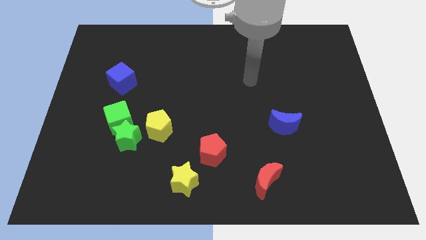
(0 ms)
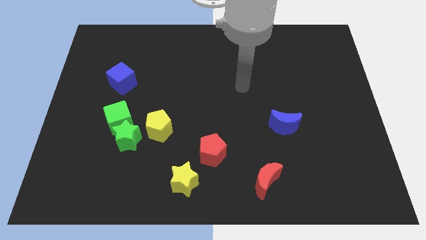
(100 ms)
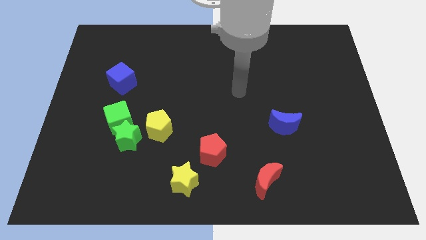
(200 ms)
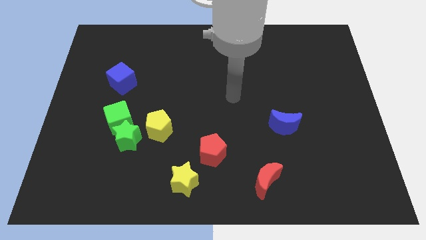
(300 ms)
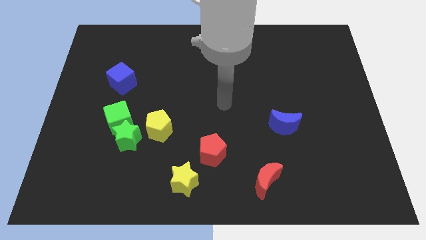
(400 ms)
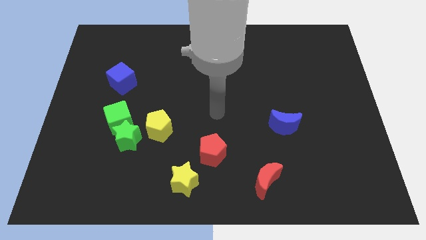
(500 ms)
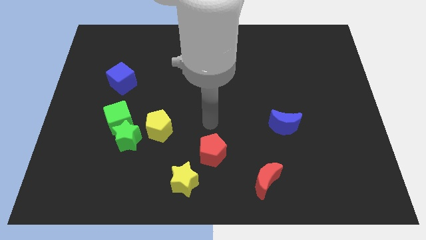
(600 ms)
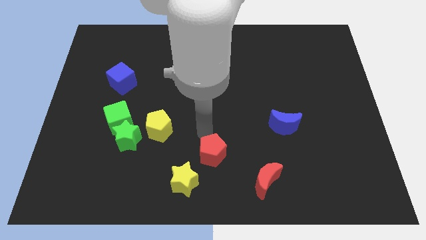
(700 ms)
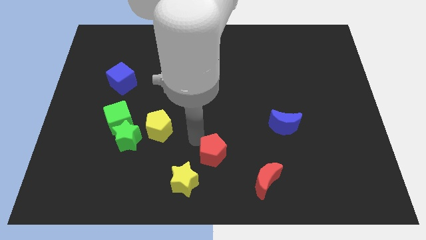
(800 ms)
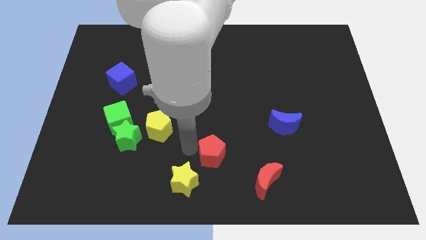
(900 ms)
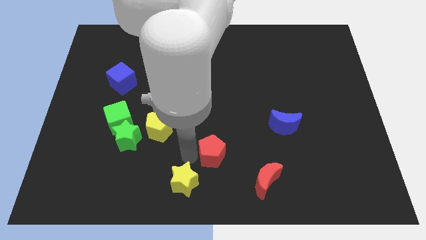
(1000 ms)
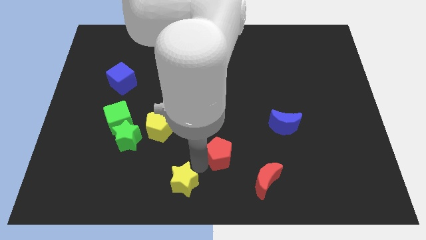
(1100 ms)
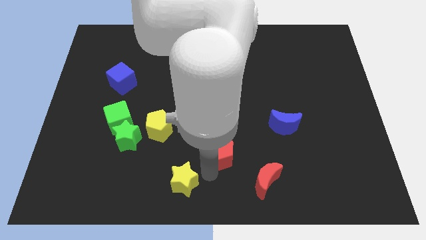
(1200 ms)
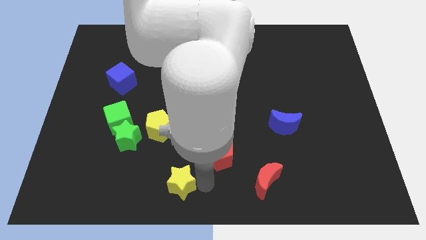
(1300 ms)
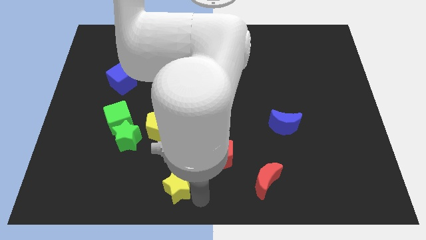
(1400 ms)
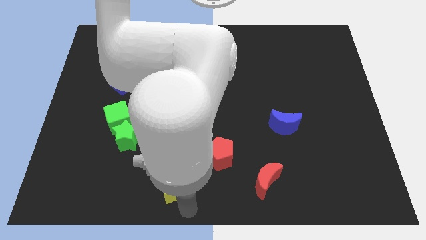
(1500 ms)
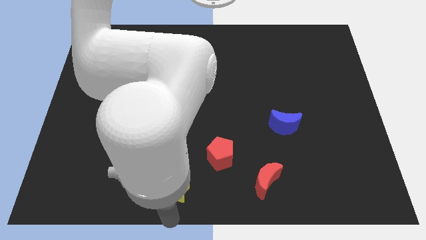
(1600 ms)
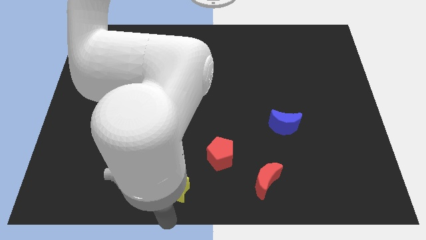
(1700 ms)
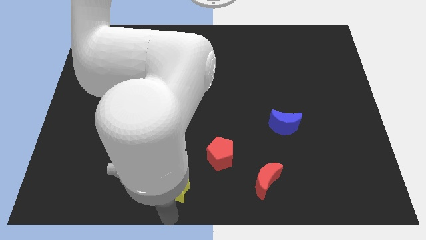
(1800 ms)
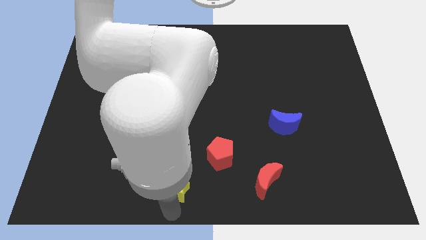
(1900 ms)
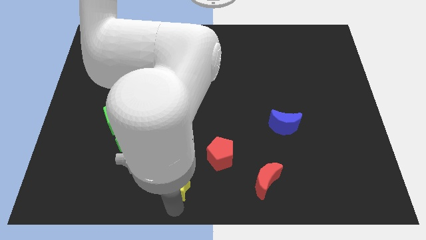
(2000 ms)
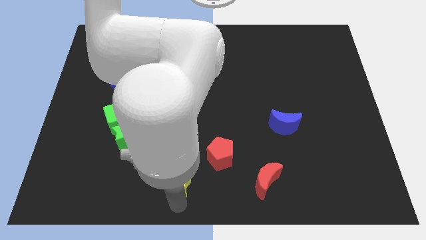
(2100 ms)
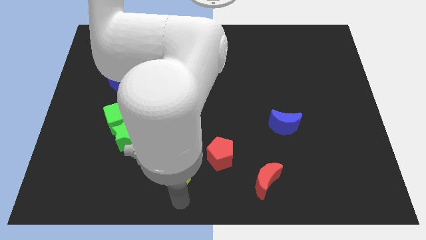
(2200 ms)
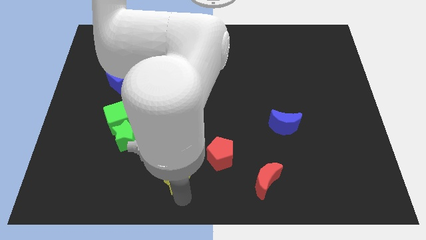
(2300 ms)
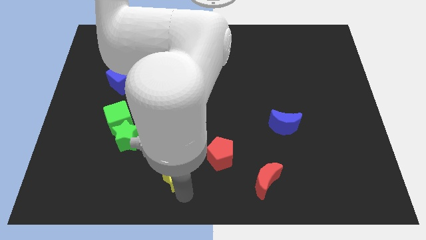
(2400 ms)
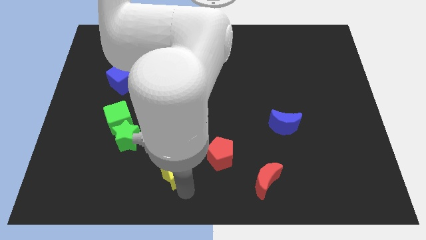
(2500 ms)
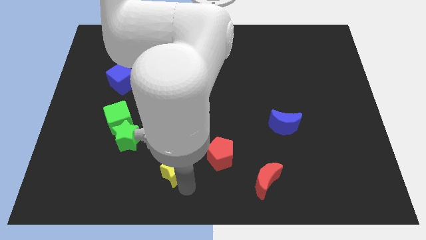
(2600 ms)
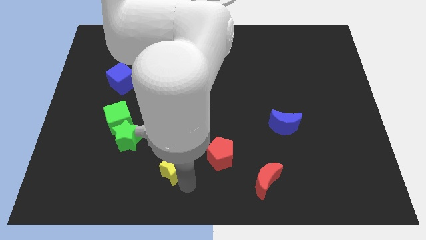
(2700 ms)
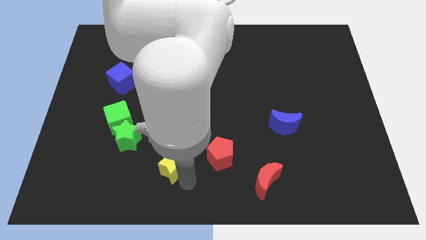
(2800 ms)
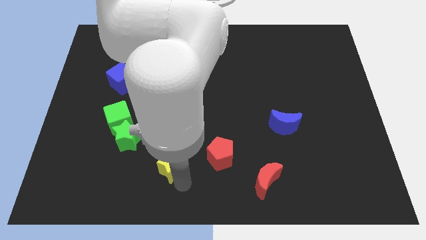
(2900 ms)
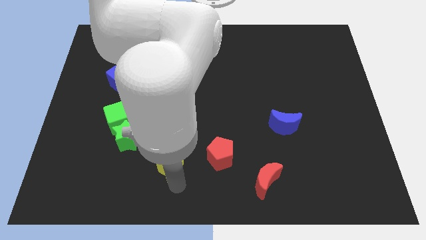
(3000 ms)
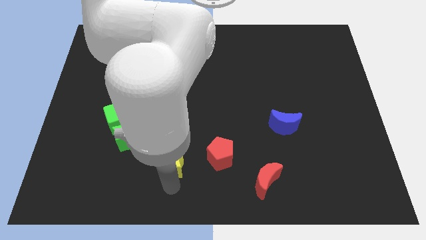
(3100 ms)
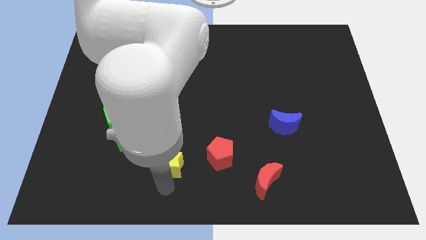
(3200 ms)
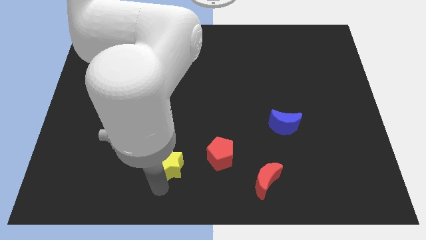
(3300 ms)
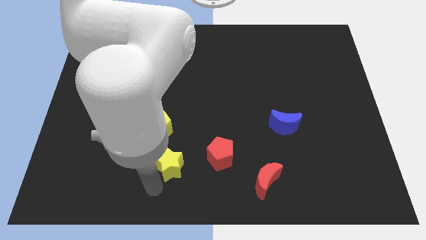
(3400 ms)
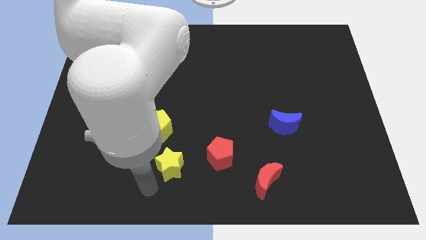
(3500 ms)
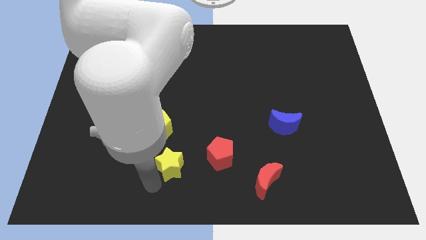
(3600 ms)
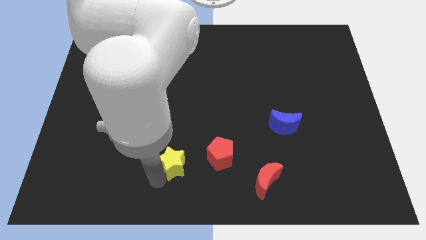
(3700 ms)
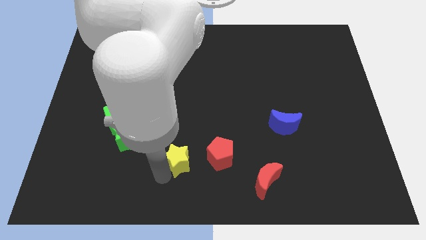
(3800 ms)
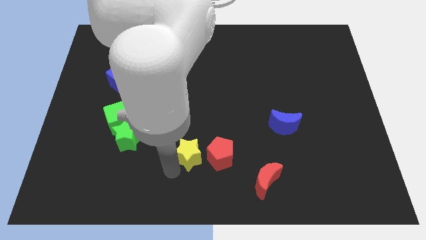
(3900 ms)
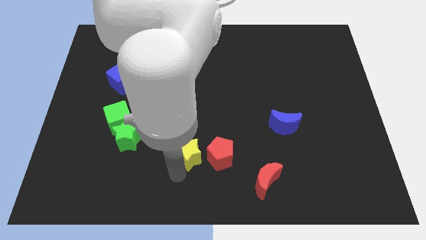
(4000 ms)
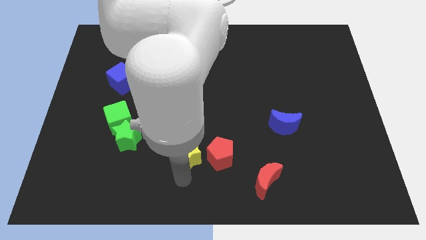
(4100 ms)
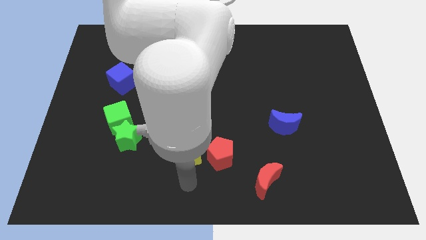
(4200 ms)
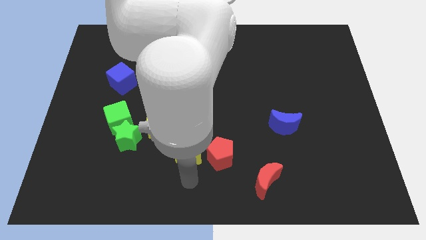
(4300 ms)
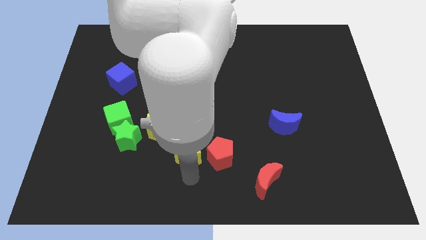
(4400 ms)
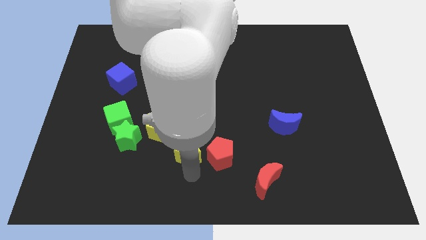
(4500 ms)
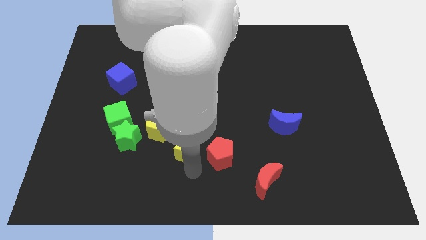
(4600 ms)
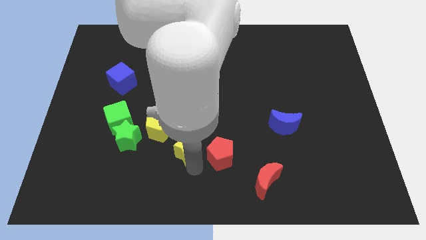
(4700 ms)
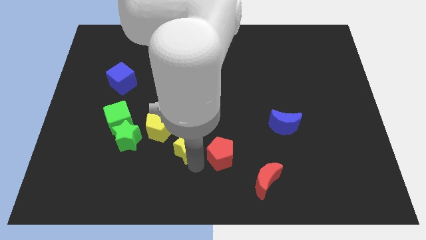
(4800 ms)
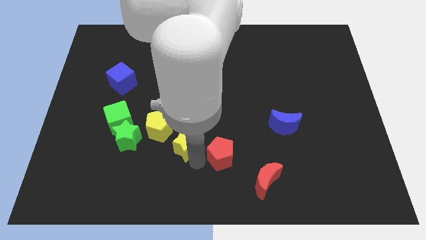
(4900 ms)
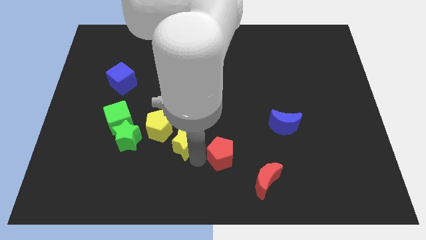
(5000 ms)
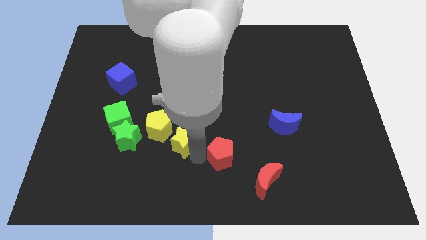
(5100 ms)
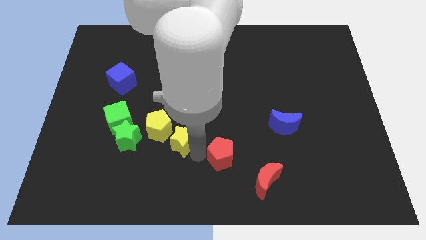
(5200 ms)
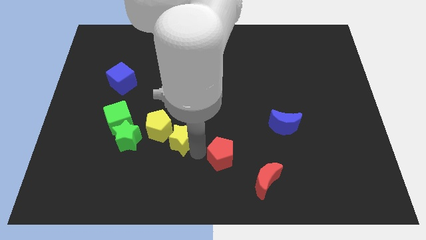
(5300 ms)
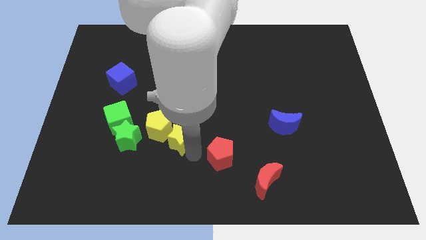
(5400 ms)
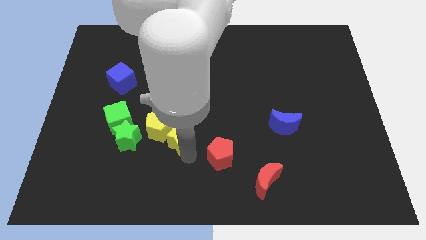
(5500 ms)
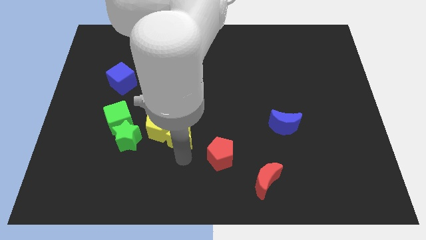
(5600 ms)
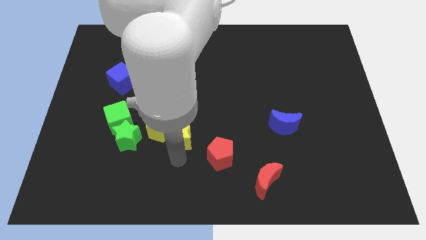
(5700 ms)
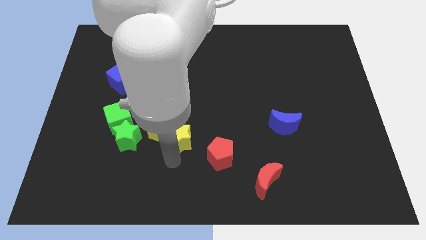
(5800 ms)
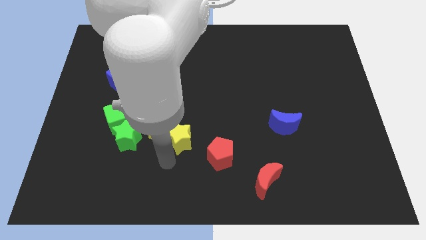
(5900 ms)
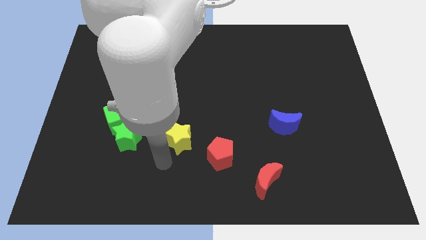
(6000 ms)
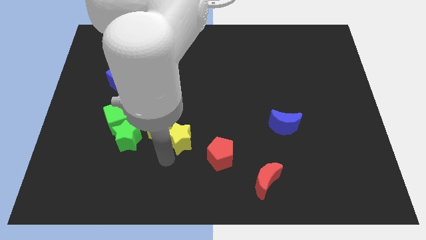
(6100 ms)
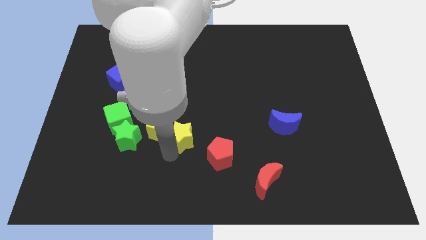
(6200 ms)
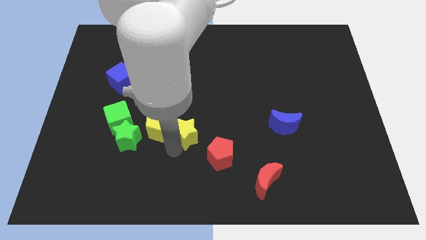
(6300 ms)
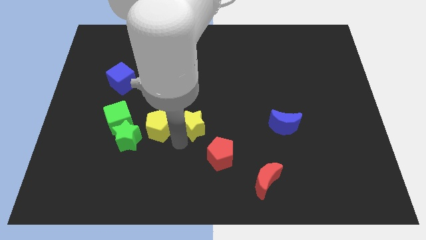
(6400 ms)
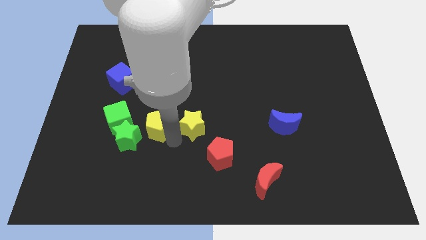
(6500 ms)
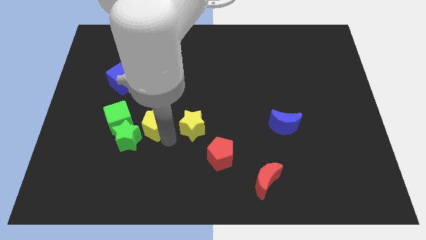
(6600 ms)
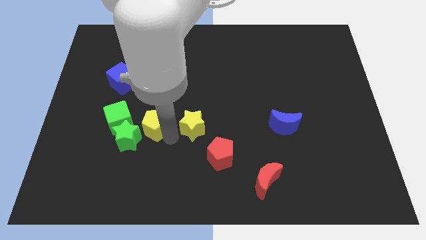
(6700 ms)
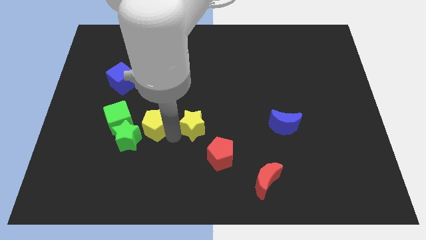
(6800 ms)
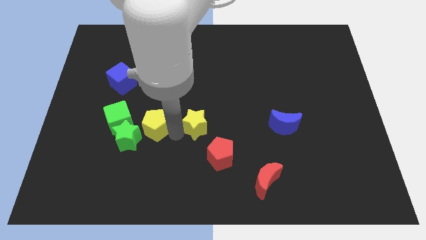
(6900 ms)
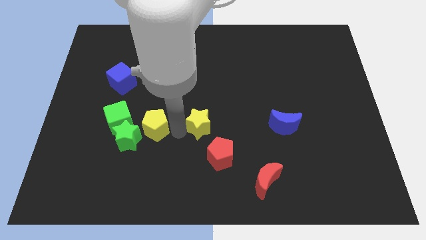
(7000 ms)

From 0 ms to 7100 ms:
push the yellow star to the top side of the red pentagon

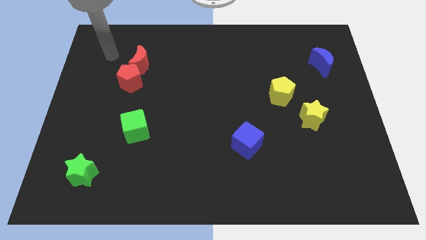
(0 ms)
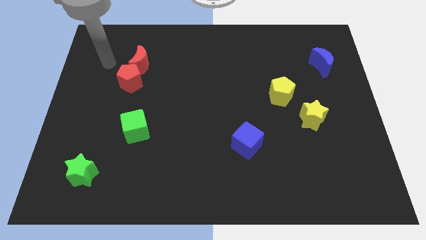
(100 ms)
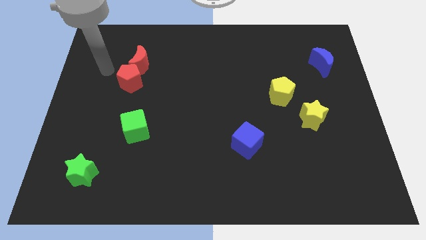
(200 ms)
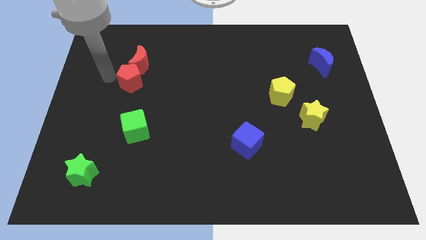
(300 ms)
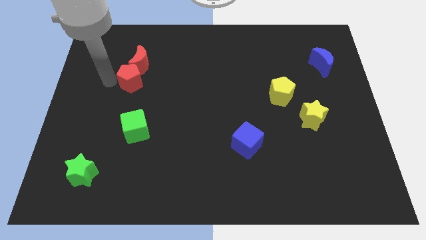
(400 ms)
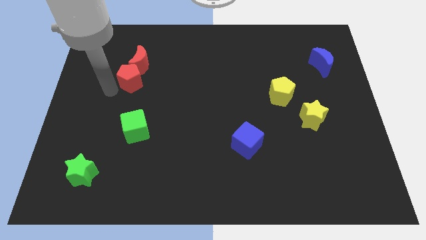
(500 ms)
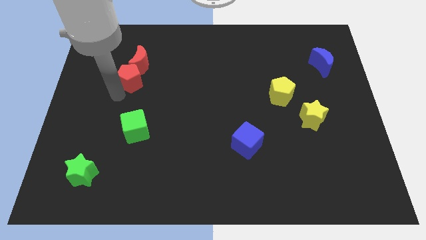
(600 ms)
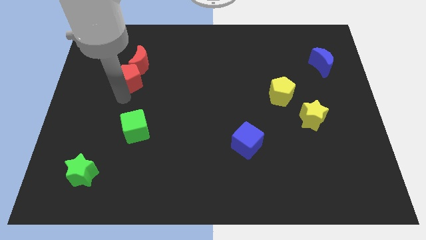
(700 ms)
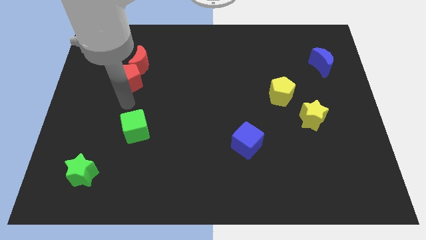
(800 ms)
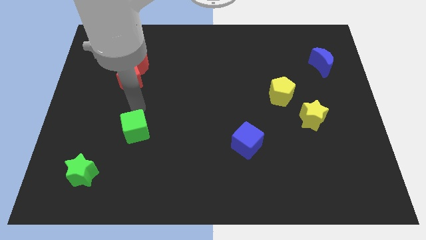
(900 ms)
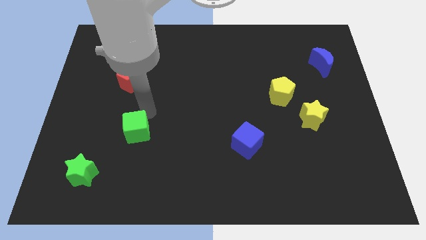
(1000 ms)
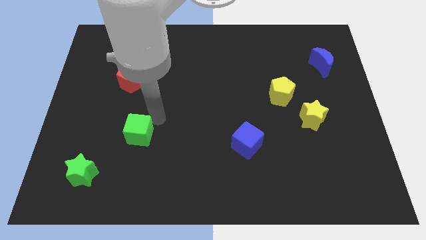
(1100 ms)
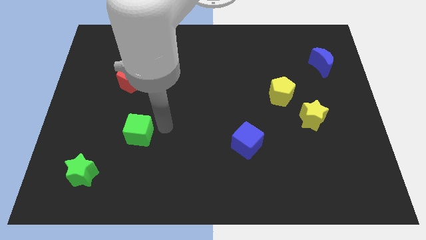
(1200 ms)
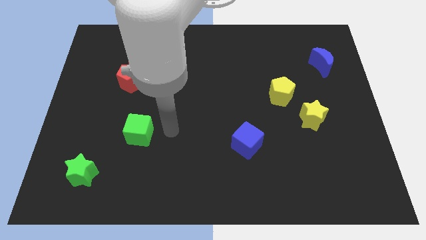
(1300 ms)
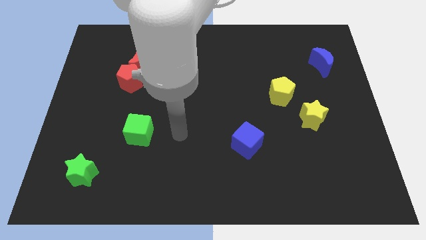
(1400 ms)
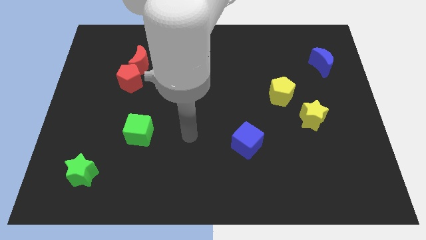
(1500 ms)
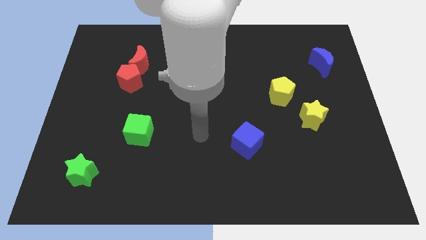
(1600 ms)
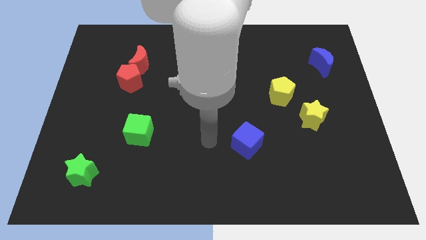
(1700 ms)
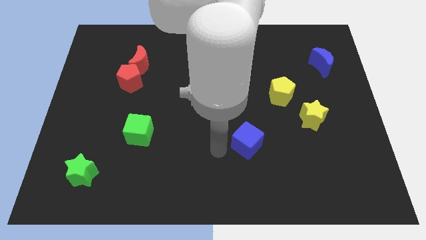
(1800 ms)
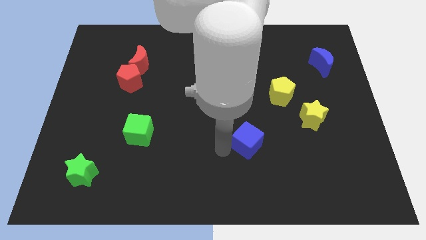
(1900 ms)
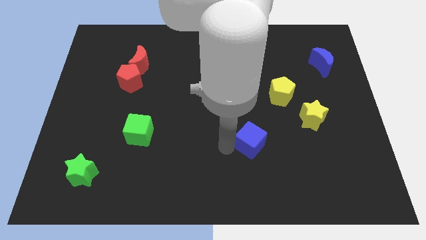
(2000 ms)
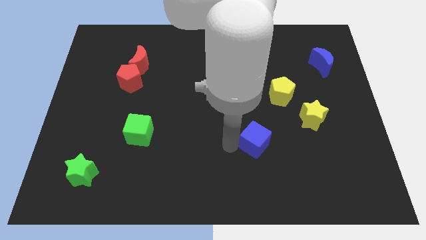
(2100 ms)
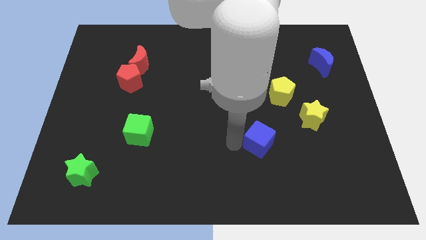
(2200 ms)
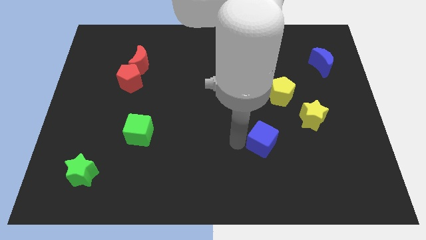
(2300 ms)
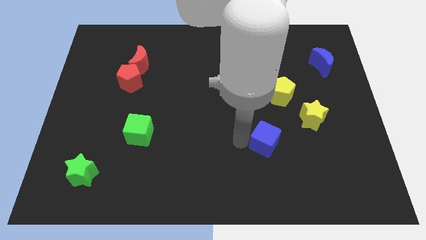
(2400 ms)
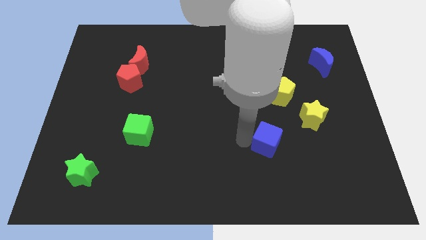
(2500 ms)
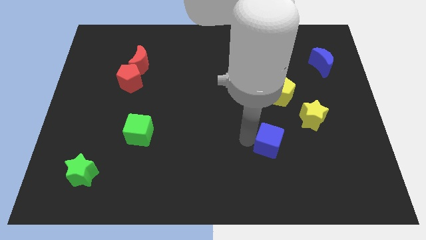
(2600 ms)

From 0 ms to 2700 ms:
move the blue cube to the bottom of the yellow pentagon
